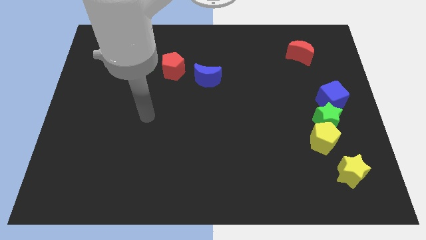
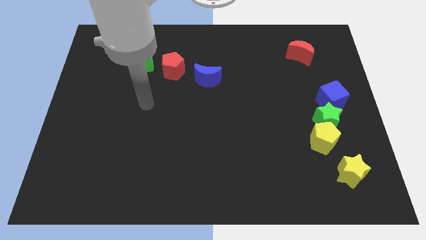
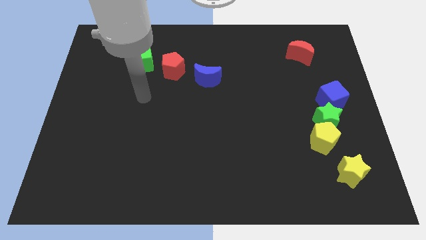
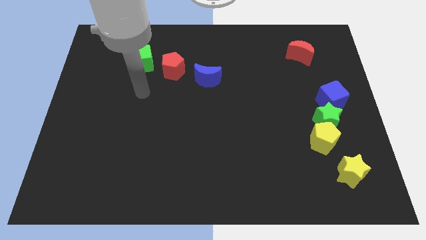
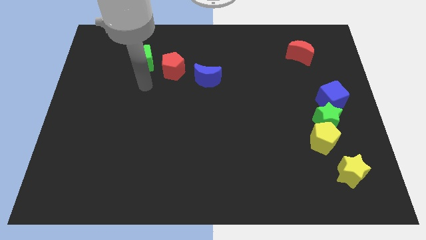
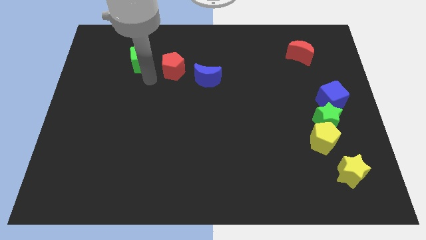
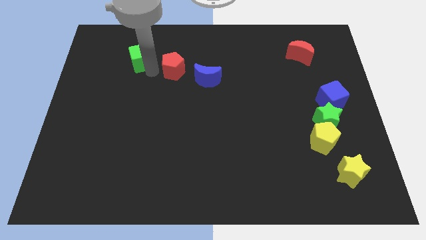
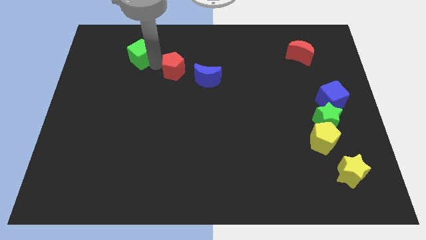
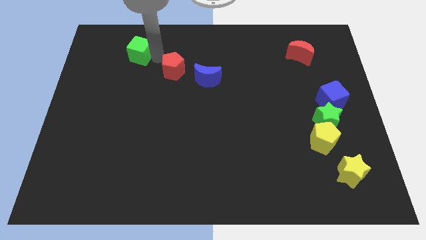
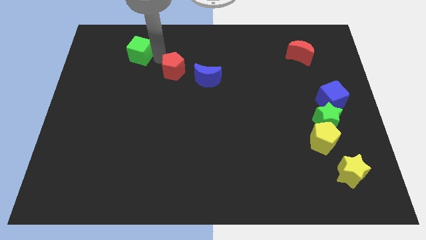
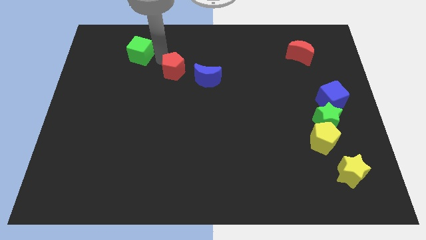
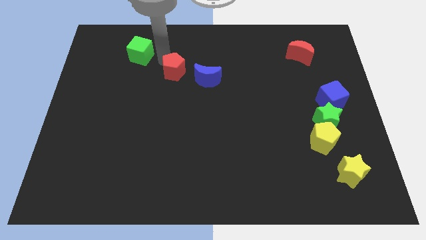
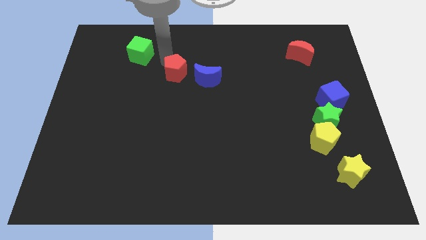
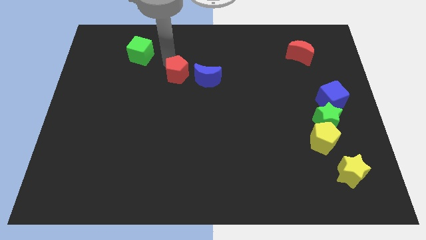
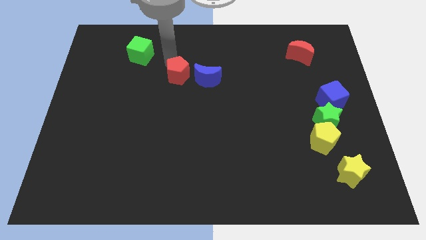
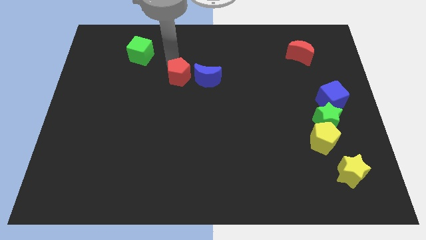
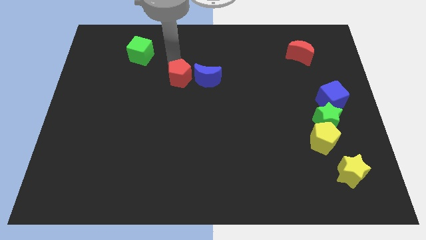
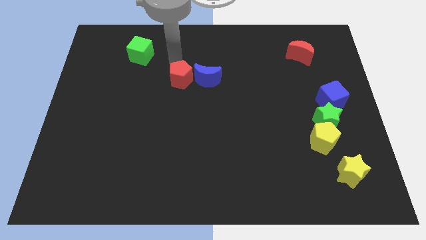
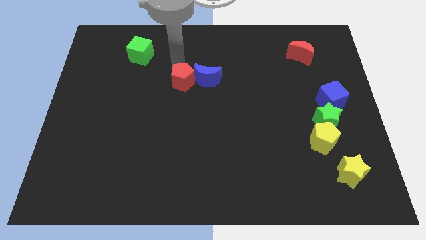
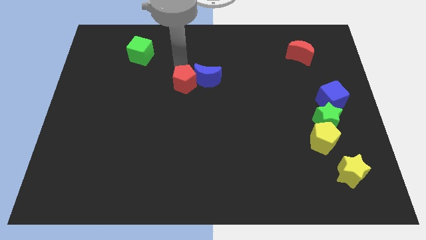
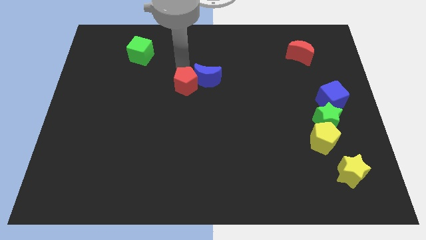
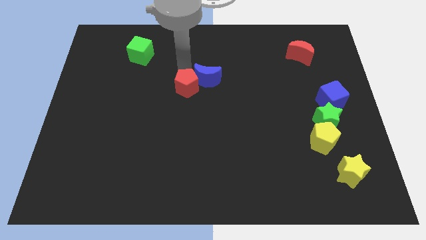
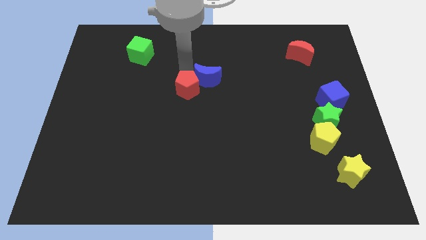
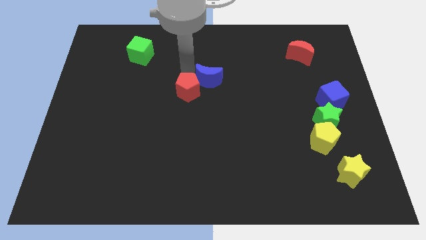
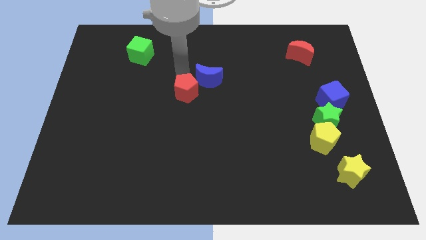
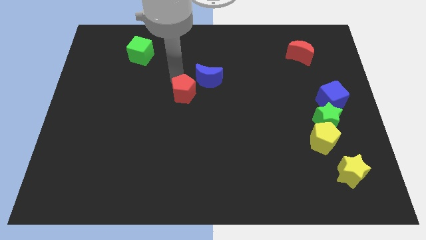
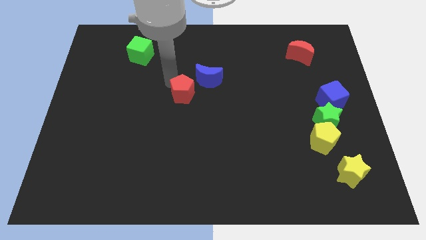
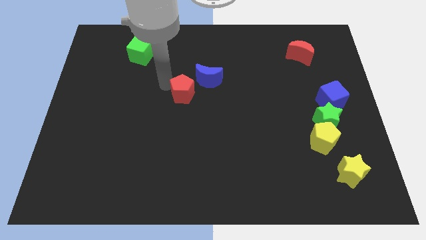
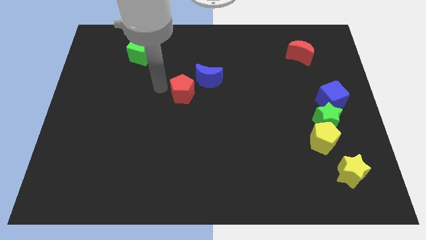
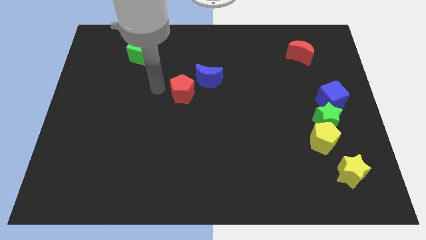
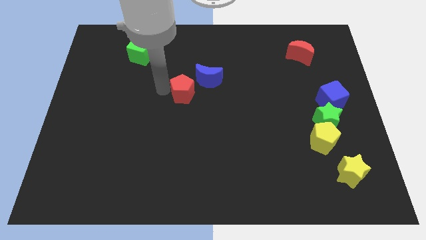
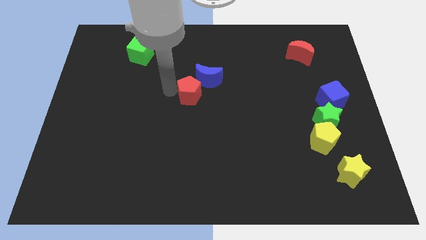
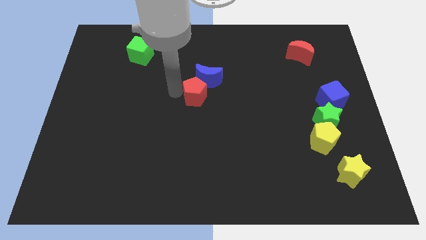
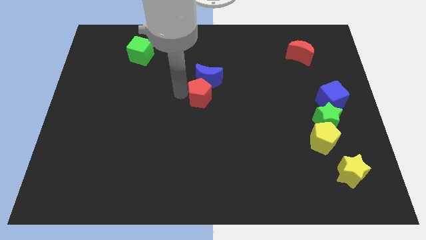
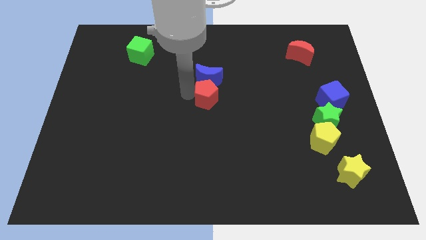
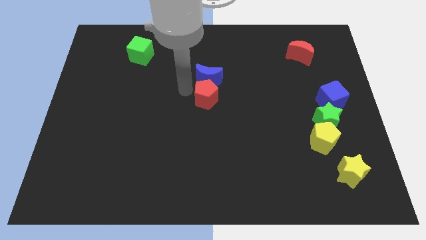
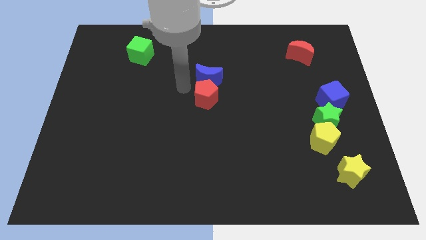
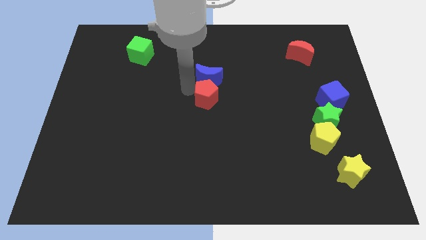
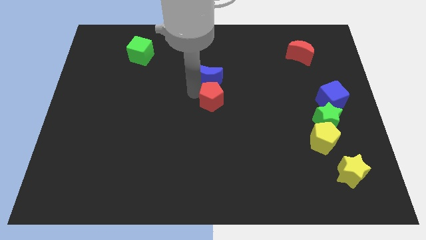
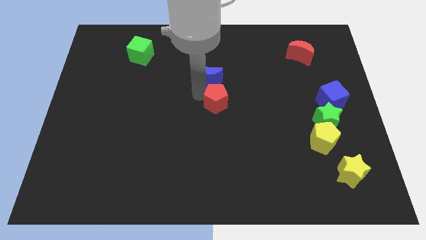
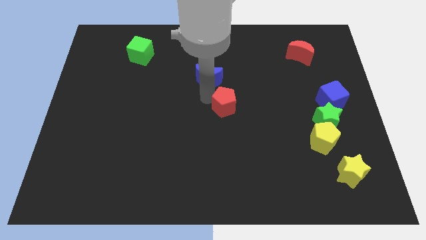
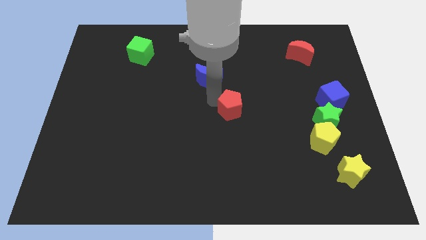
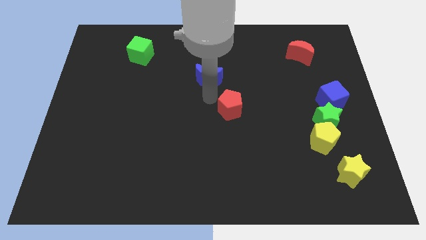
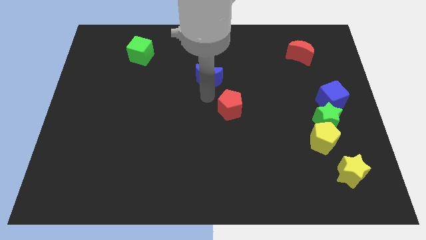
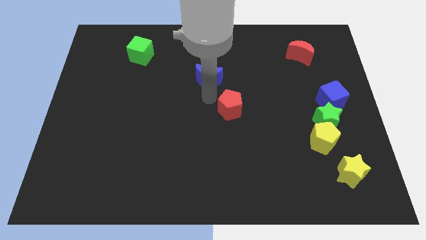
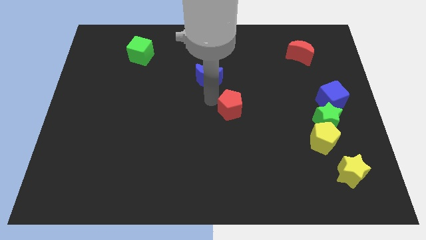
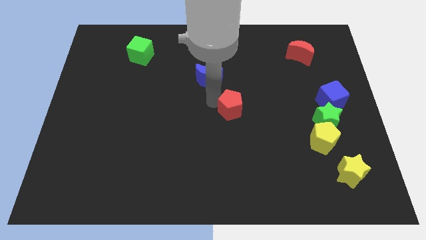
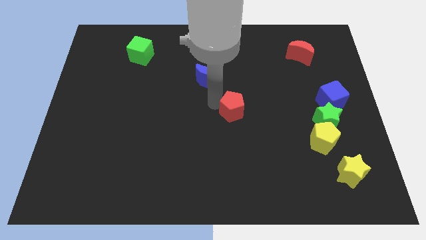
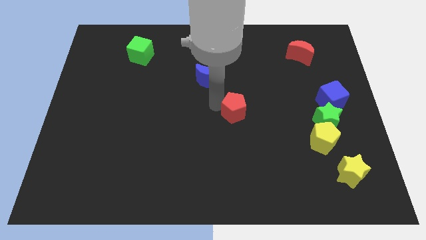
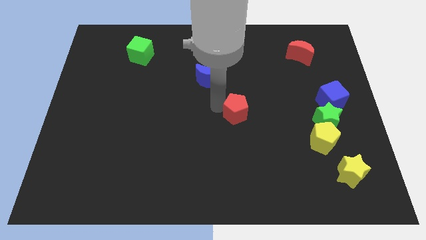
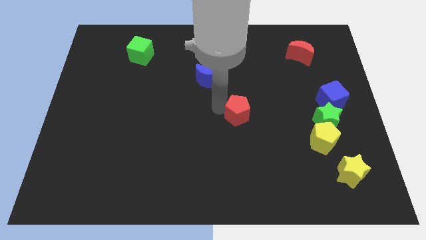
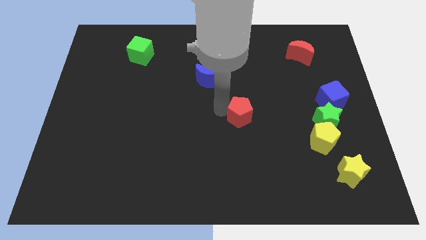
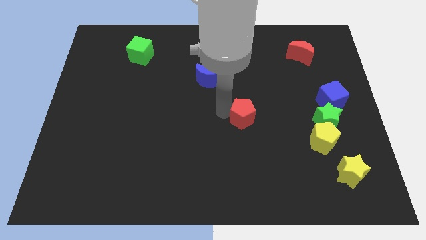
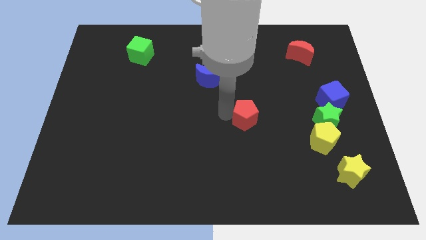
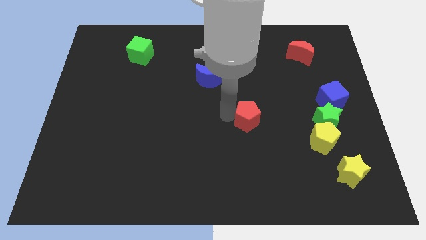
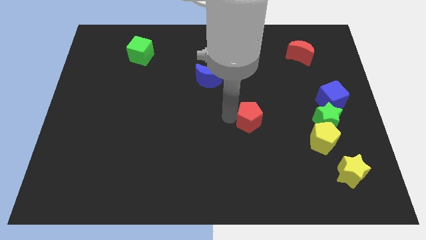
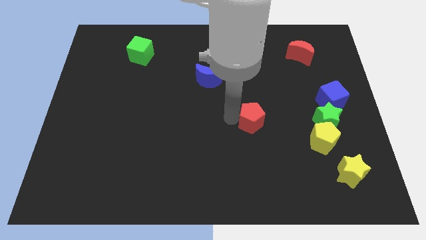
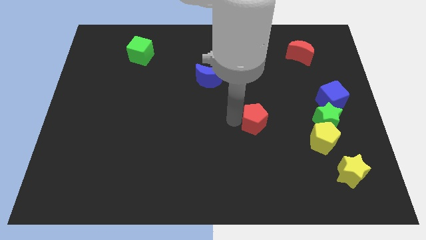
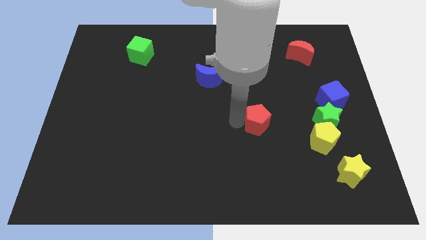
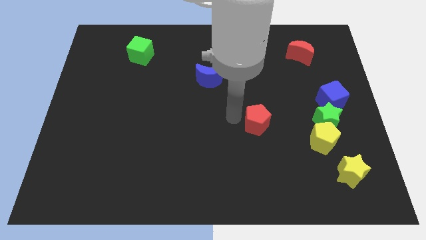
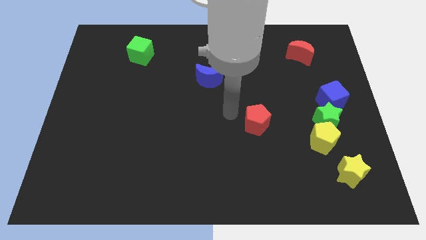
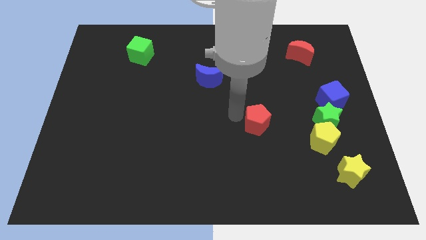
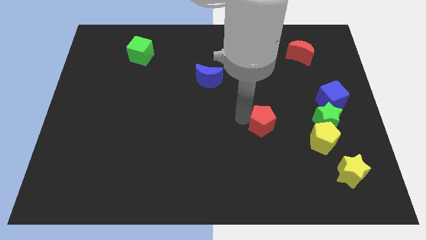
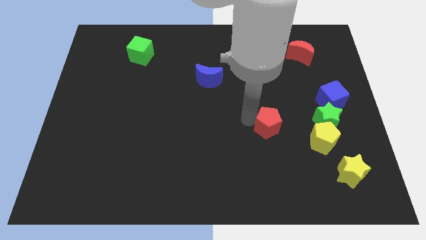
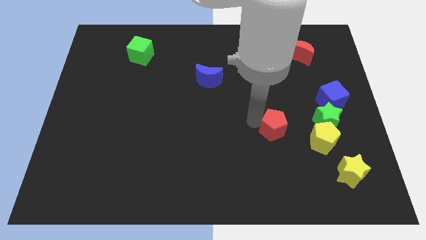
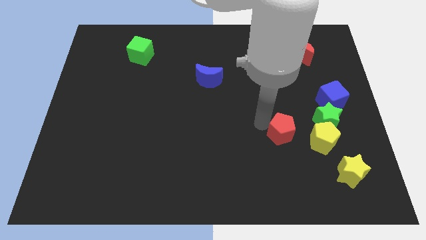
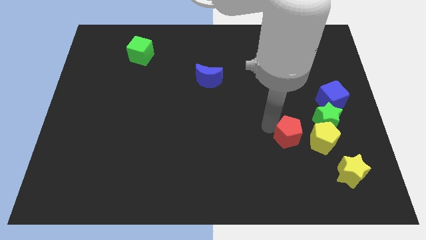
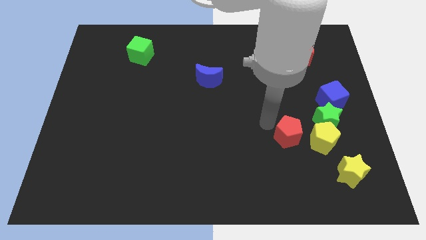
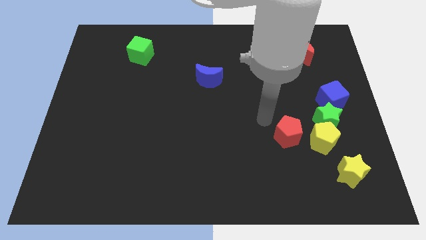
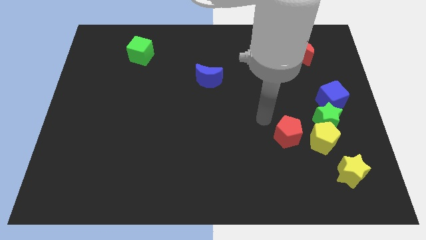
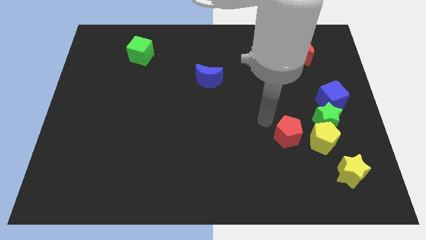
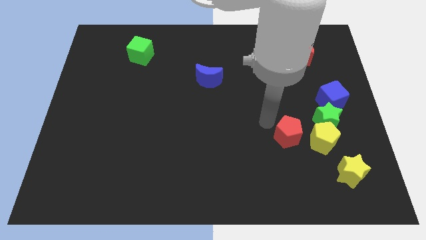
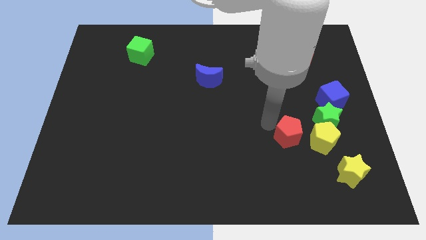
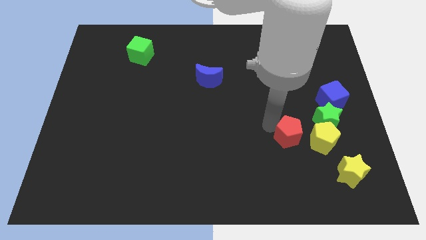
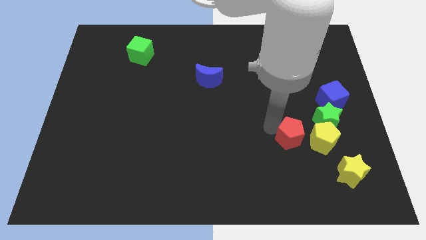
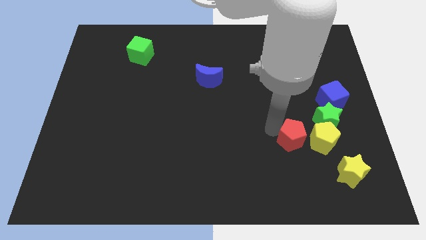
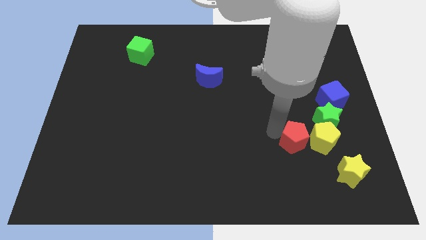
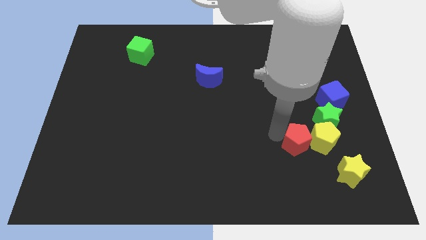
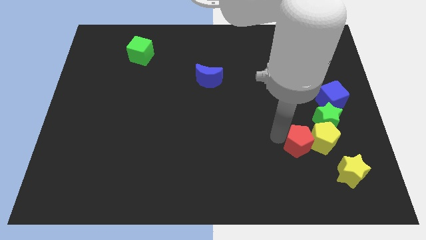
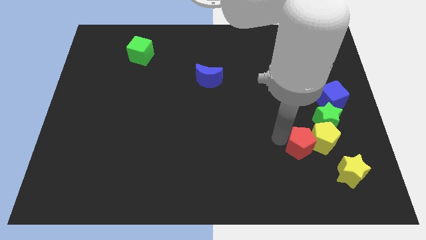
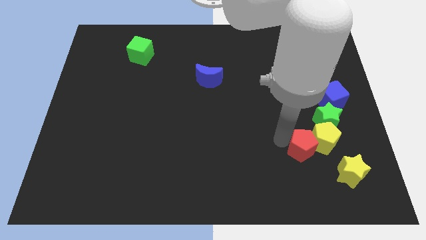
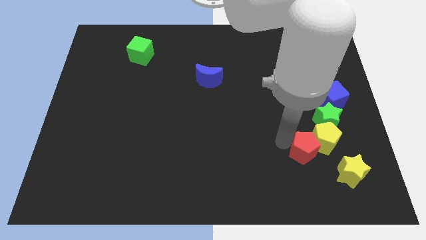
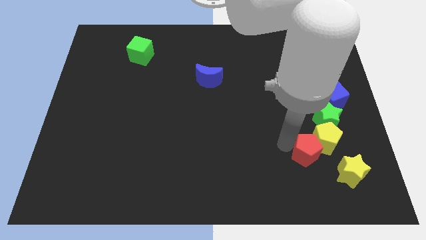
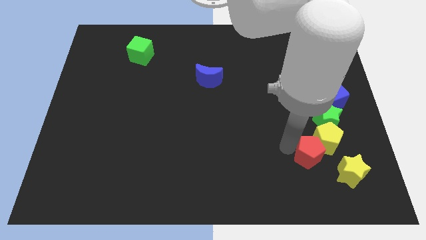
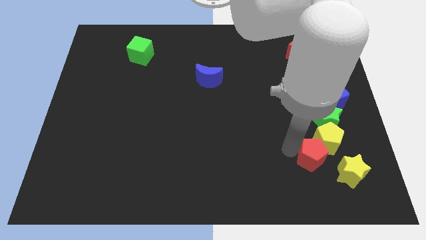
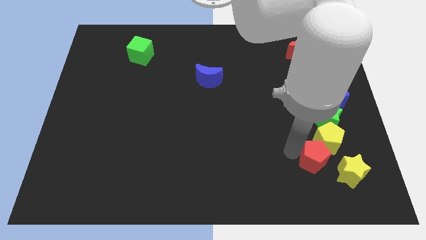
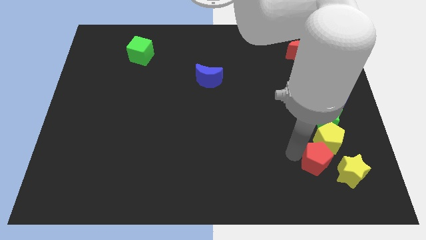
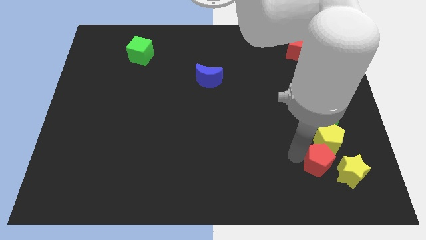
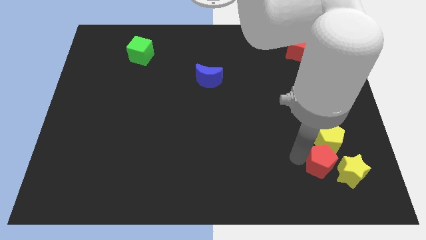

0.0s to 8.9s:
move the red pentagon next to the yellow star
